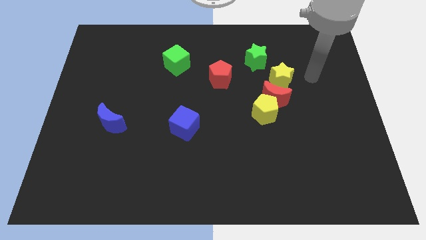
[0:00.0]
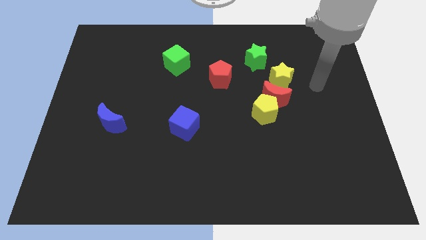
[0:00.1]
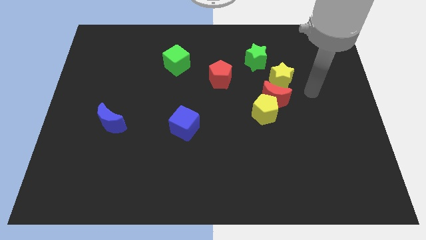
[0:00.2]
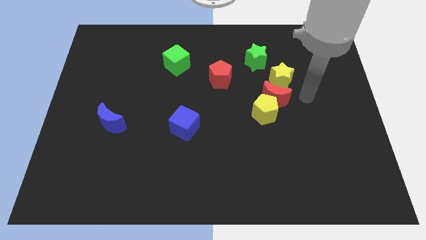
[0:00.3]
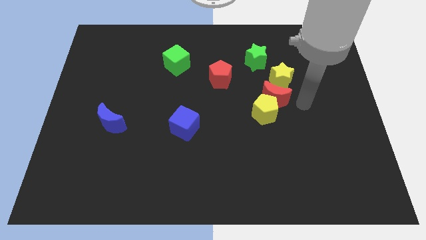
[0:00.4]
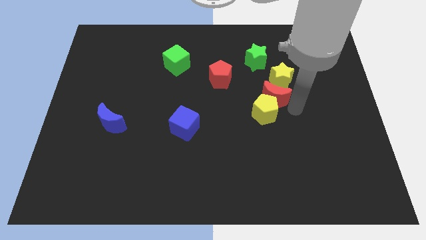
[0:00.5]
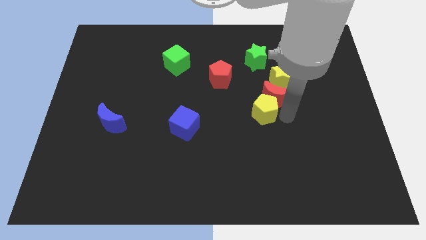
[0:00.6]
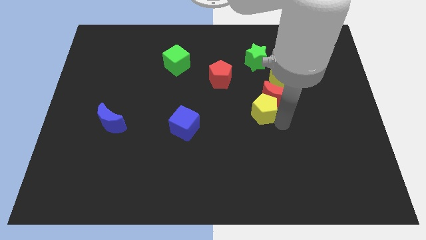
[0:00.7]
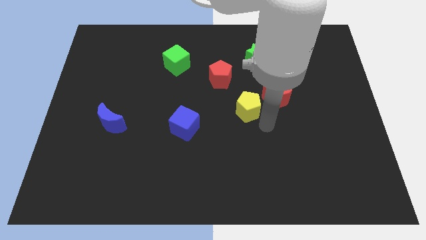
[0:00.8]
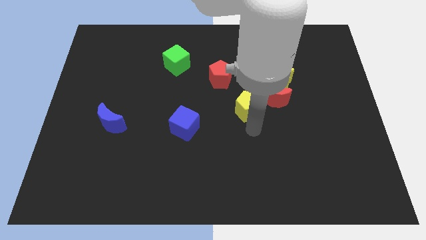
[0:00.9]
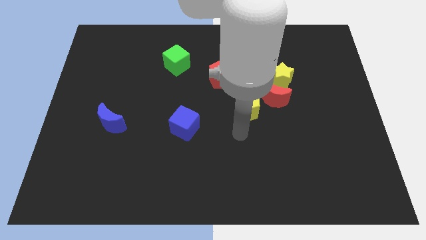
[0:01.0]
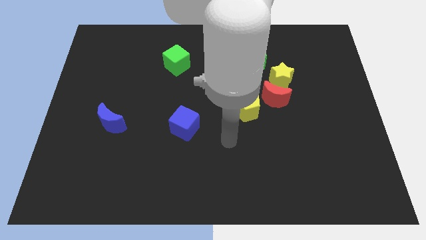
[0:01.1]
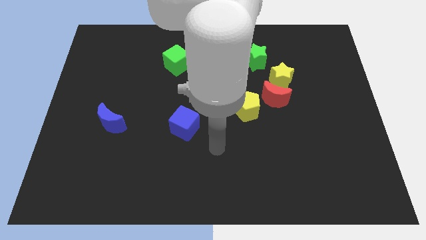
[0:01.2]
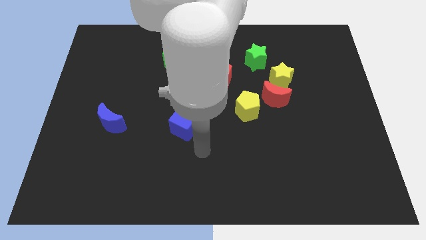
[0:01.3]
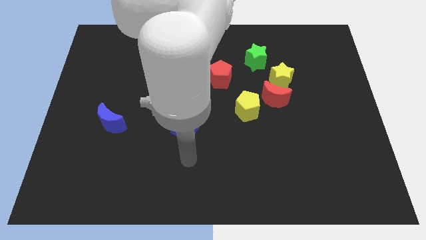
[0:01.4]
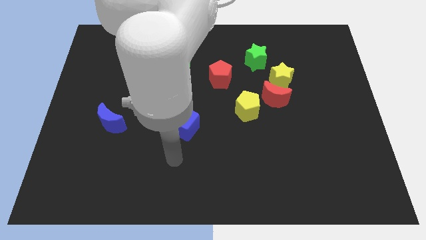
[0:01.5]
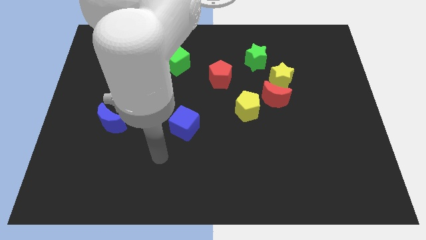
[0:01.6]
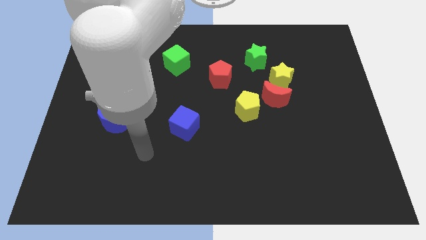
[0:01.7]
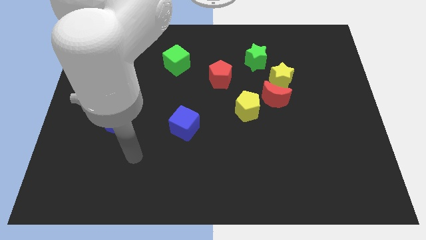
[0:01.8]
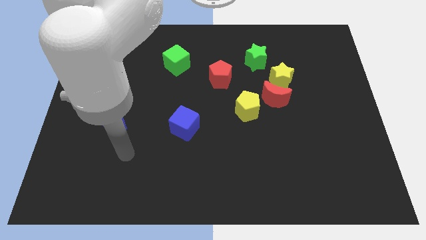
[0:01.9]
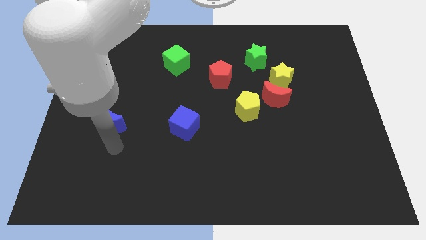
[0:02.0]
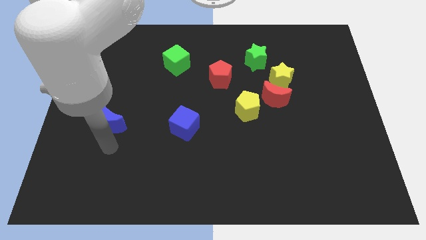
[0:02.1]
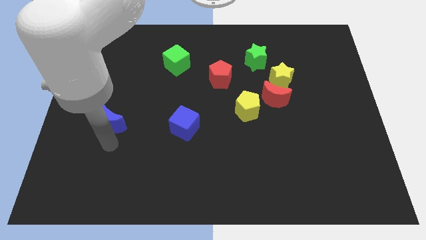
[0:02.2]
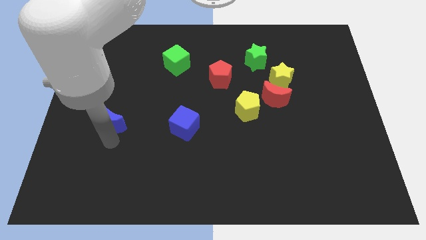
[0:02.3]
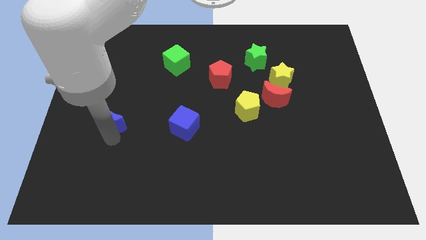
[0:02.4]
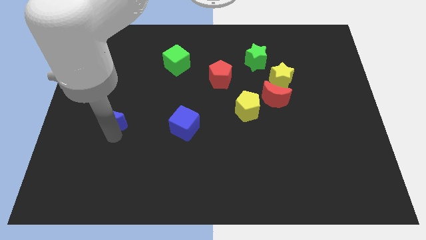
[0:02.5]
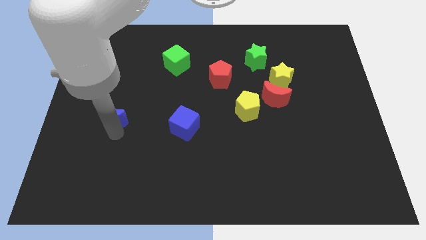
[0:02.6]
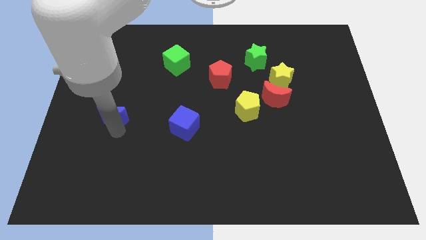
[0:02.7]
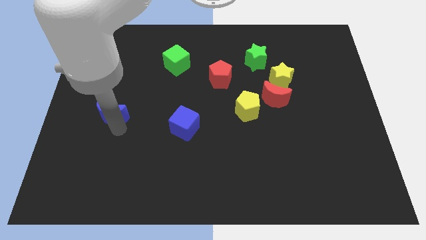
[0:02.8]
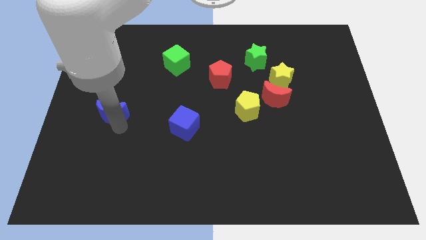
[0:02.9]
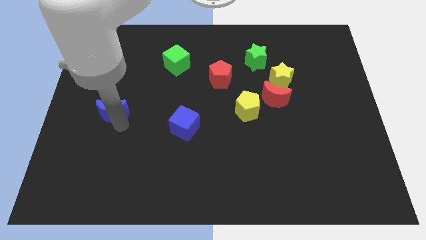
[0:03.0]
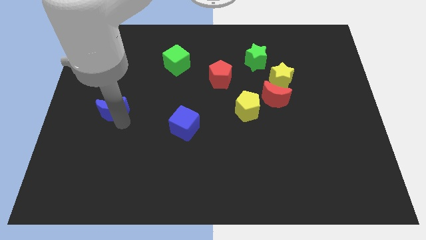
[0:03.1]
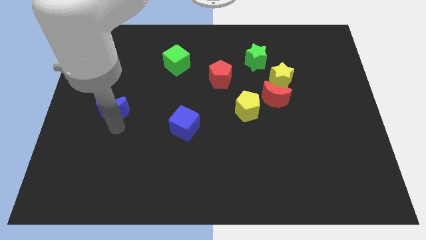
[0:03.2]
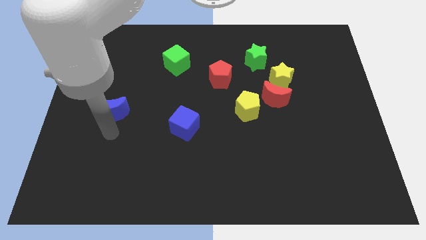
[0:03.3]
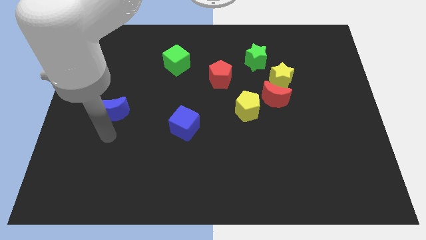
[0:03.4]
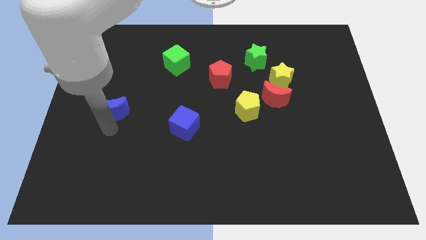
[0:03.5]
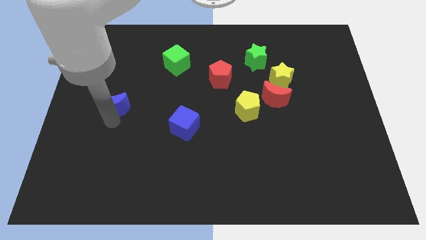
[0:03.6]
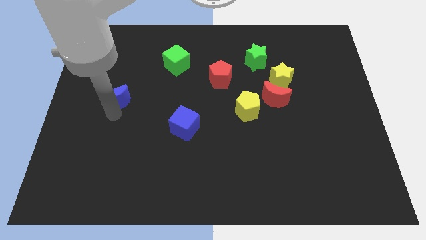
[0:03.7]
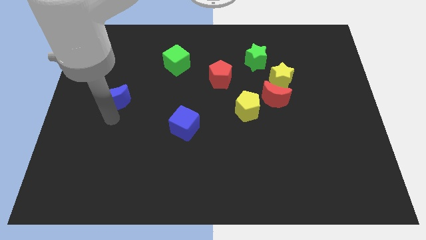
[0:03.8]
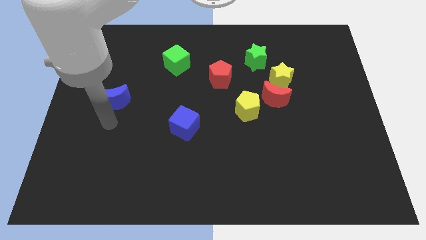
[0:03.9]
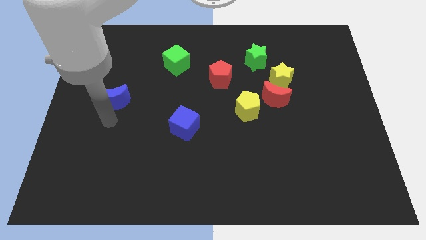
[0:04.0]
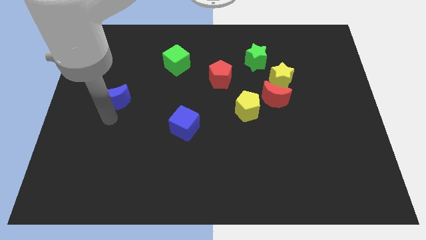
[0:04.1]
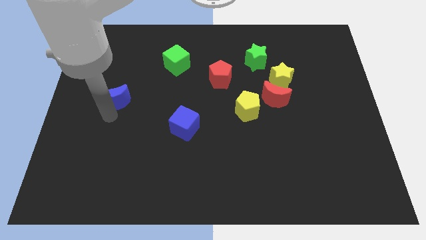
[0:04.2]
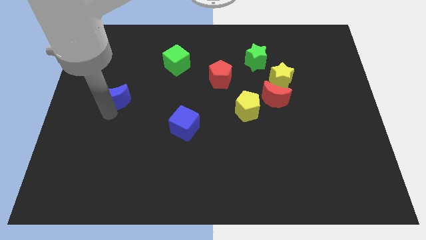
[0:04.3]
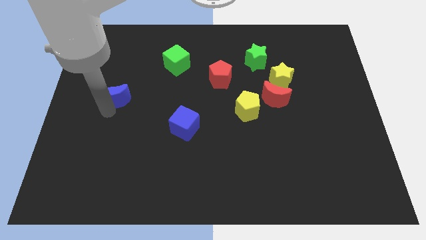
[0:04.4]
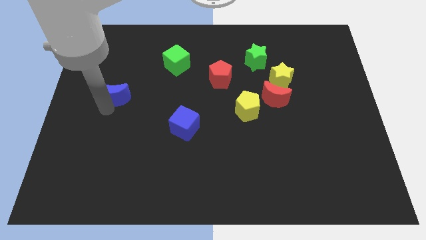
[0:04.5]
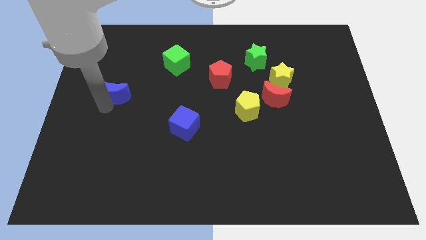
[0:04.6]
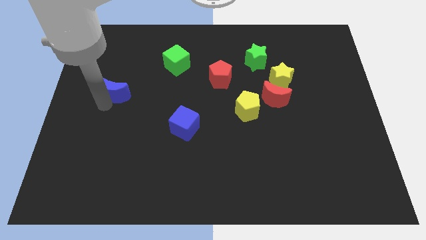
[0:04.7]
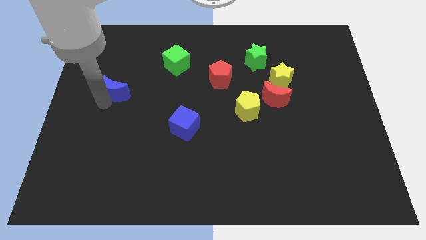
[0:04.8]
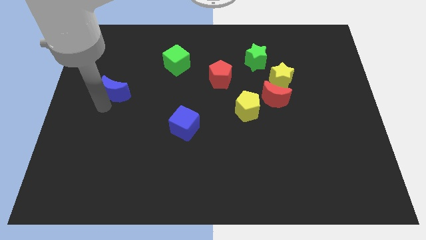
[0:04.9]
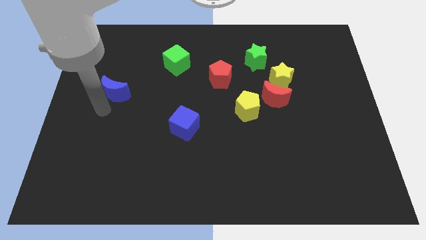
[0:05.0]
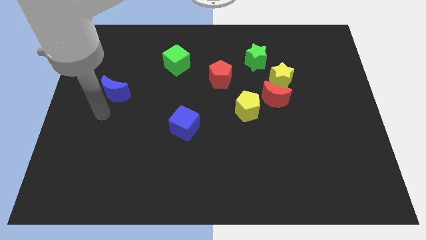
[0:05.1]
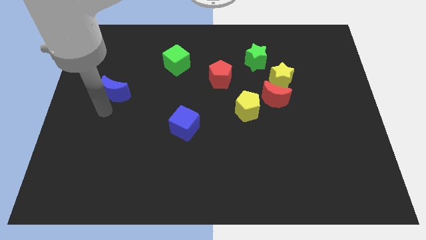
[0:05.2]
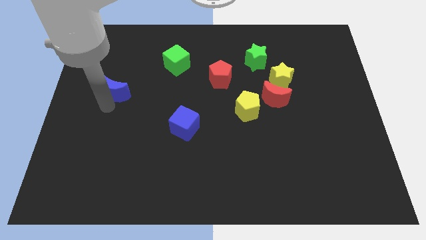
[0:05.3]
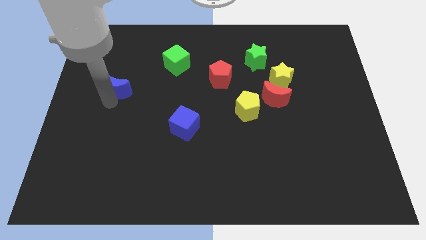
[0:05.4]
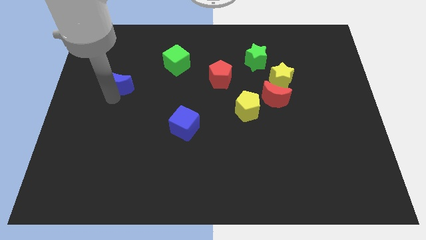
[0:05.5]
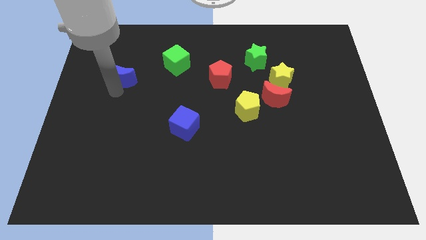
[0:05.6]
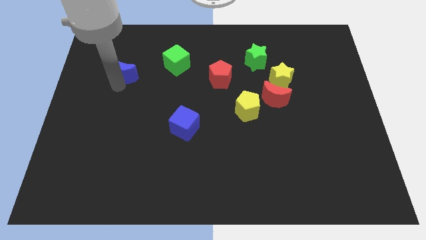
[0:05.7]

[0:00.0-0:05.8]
slide the blue moon to the left of the green cube

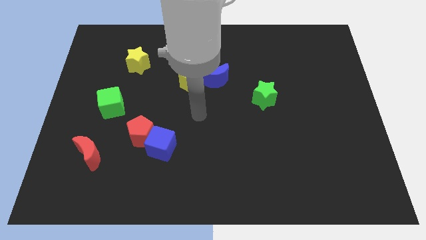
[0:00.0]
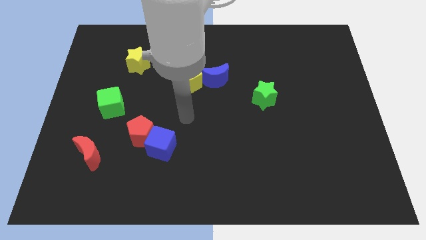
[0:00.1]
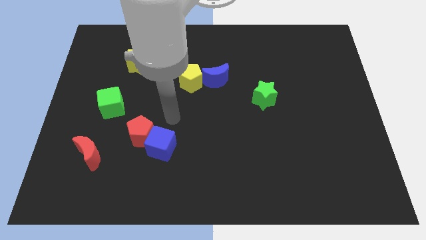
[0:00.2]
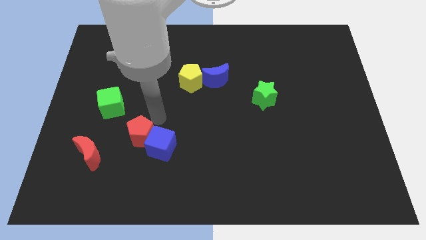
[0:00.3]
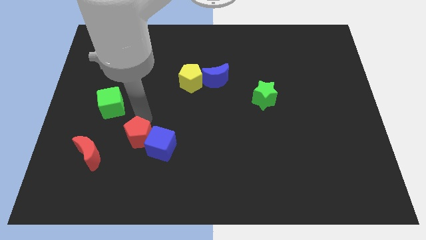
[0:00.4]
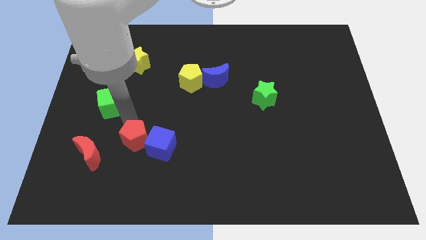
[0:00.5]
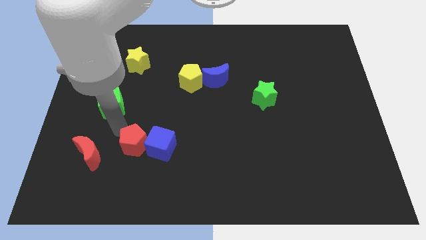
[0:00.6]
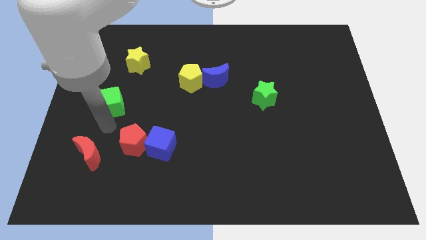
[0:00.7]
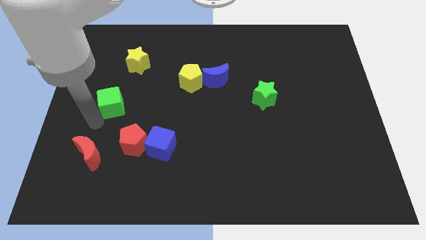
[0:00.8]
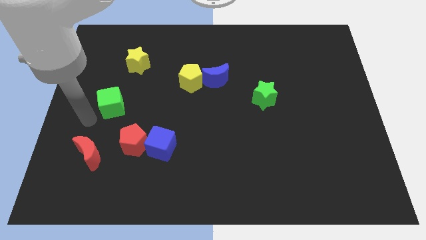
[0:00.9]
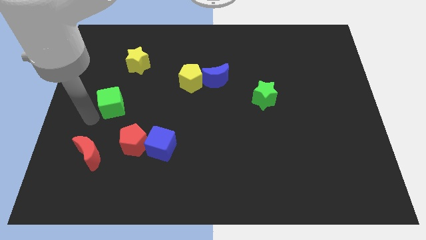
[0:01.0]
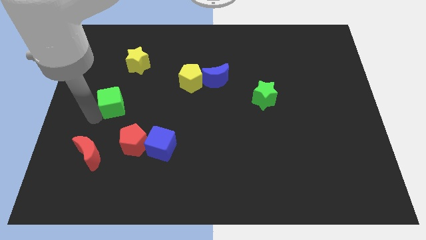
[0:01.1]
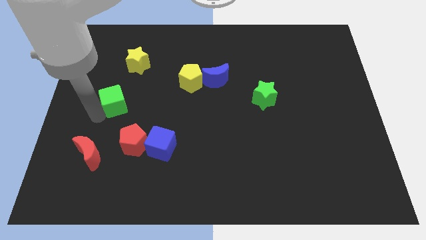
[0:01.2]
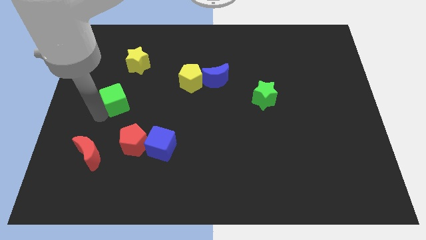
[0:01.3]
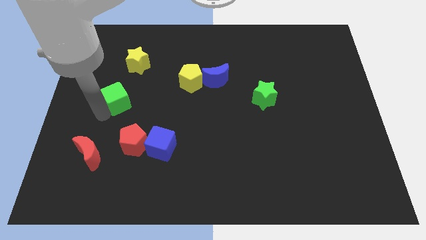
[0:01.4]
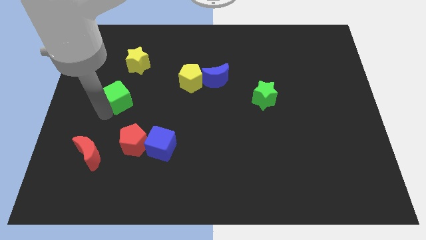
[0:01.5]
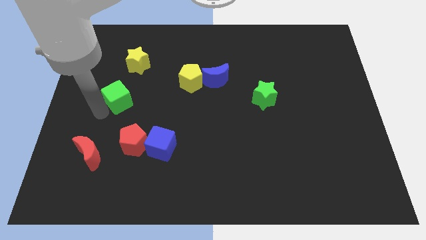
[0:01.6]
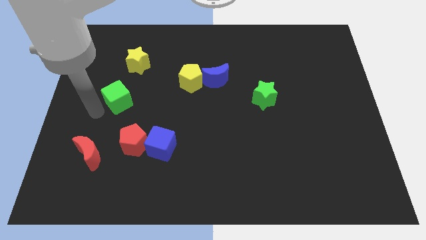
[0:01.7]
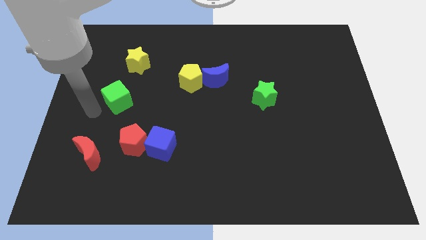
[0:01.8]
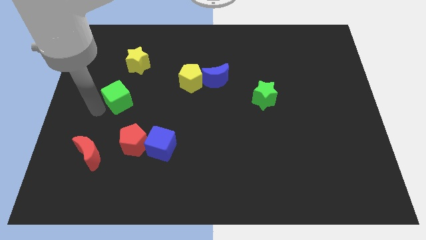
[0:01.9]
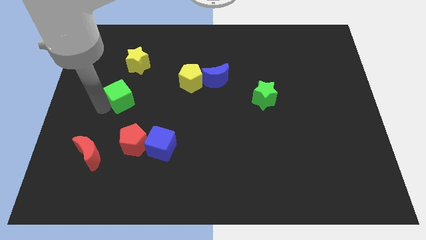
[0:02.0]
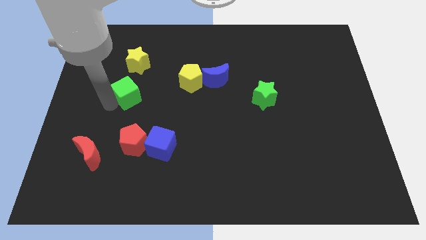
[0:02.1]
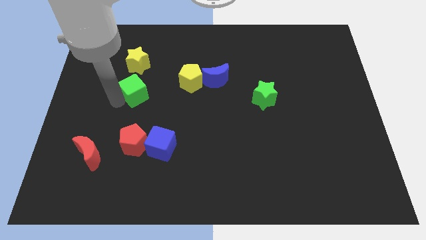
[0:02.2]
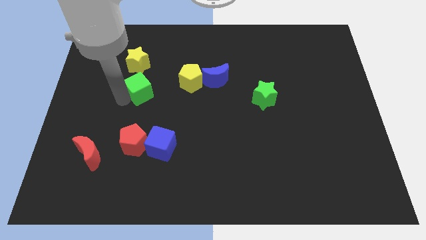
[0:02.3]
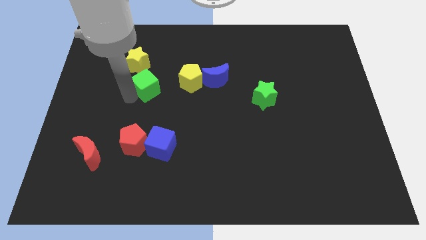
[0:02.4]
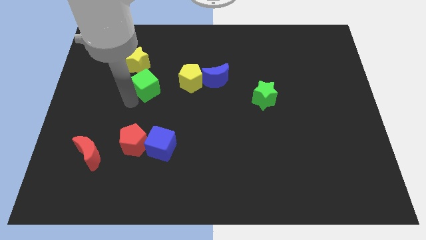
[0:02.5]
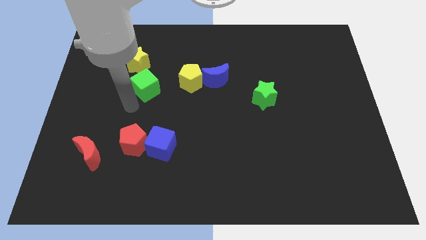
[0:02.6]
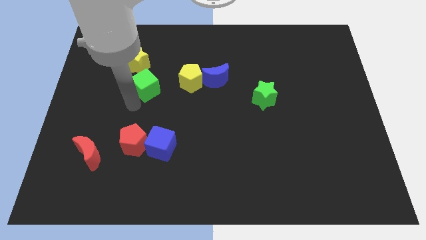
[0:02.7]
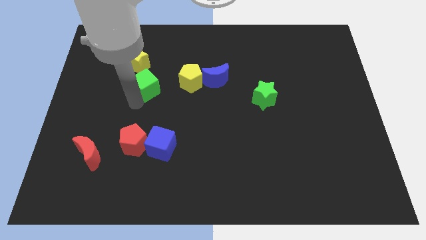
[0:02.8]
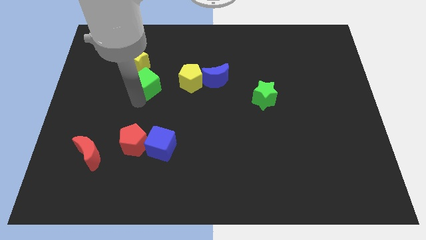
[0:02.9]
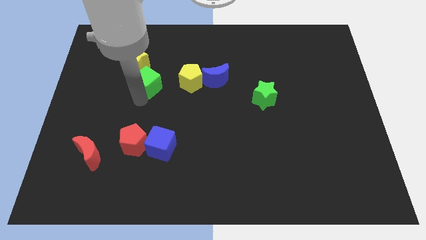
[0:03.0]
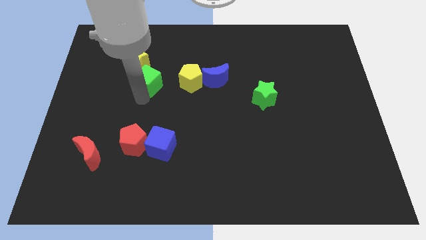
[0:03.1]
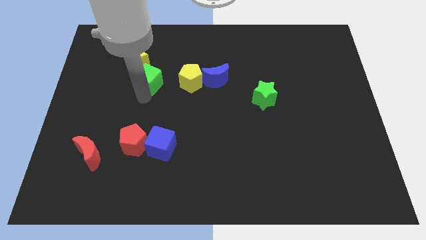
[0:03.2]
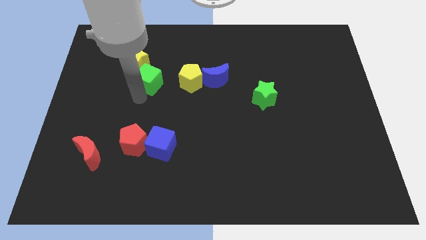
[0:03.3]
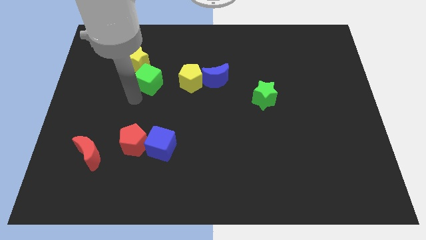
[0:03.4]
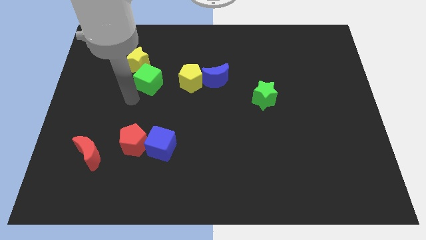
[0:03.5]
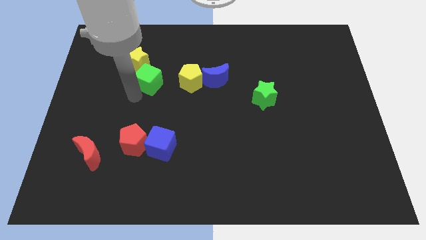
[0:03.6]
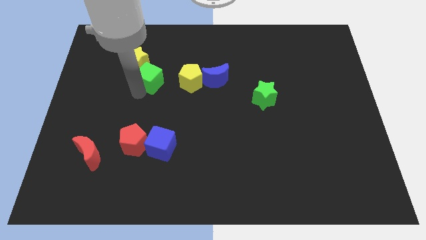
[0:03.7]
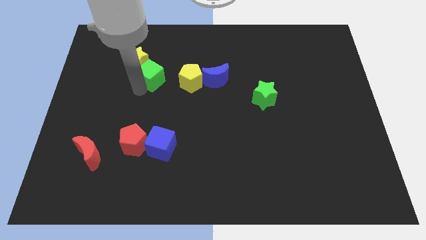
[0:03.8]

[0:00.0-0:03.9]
put the green cube right of the yellow star
